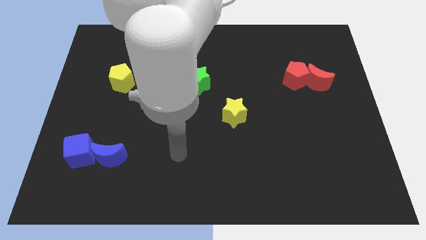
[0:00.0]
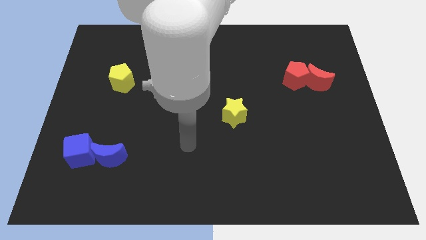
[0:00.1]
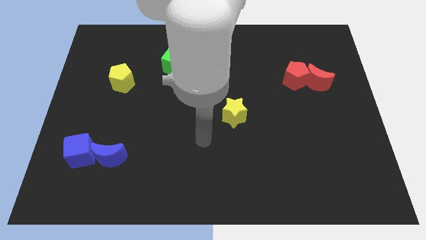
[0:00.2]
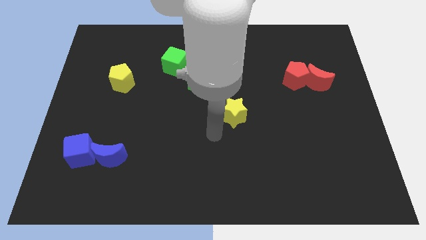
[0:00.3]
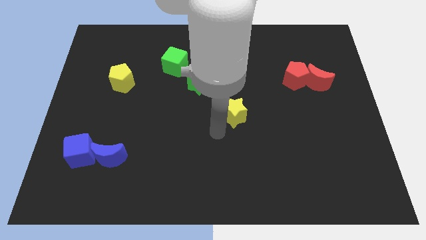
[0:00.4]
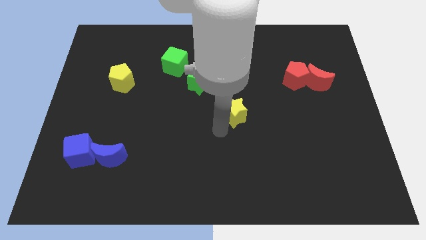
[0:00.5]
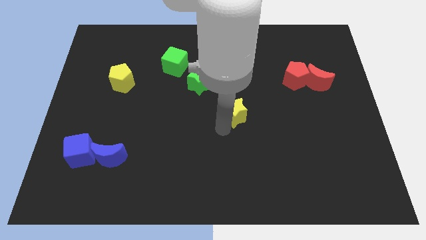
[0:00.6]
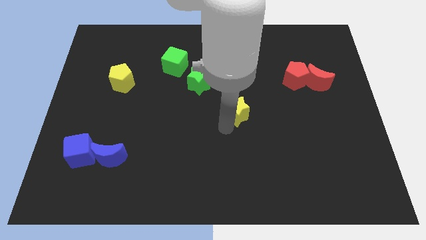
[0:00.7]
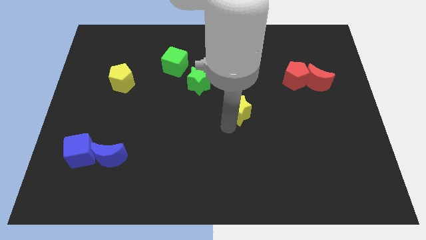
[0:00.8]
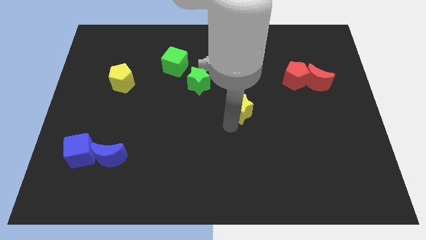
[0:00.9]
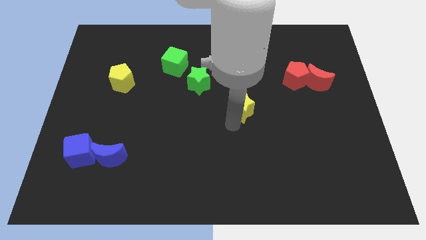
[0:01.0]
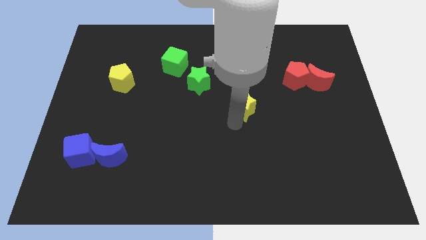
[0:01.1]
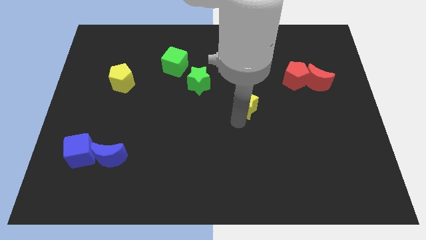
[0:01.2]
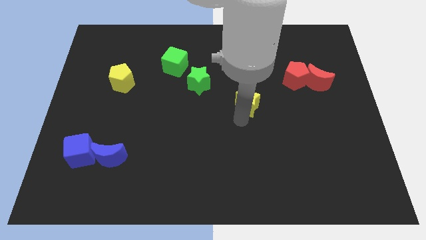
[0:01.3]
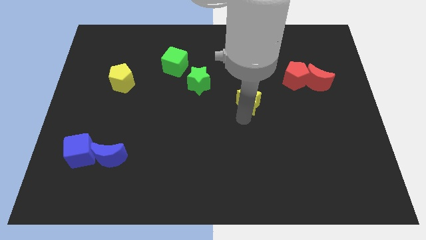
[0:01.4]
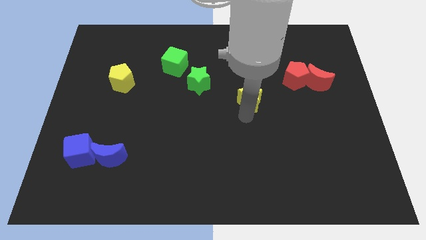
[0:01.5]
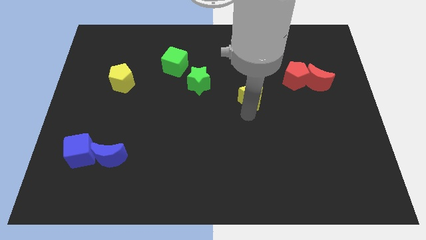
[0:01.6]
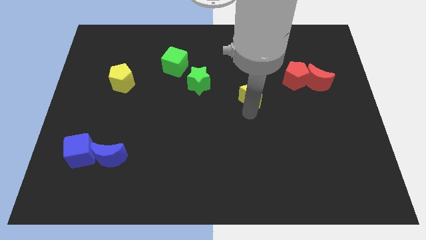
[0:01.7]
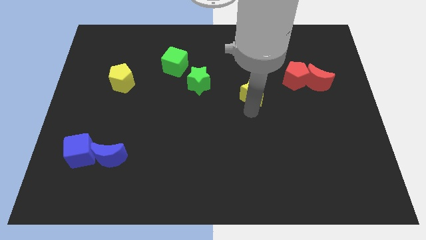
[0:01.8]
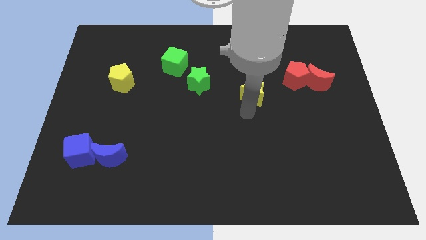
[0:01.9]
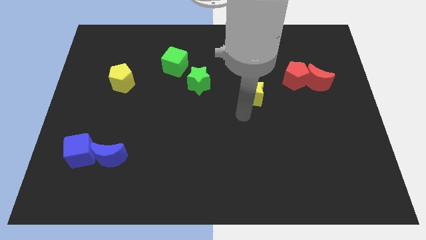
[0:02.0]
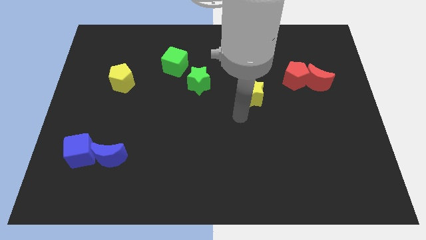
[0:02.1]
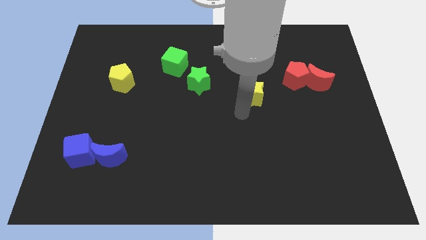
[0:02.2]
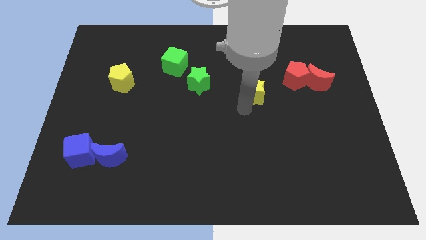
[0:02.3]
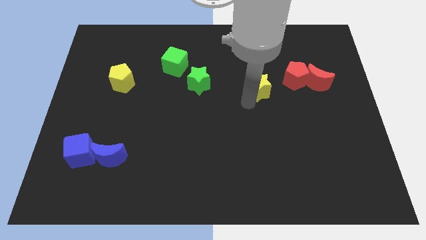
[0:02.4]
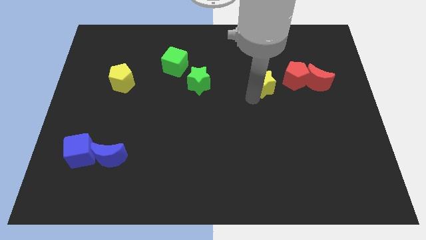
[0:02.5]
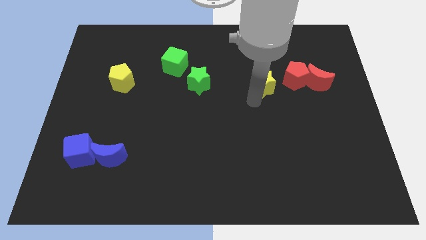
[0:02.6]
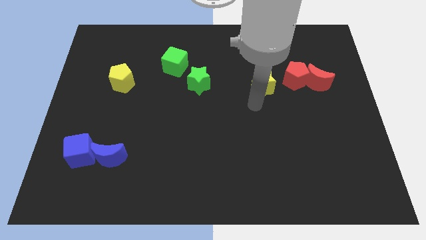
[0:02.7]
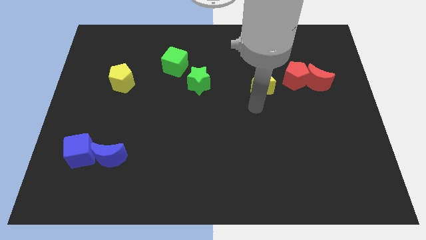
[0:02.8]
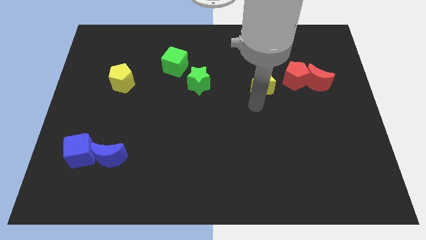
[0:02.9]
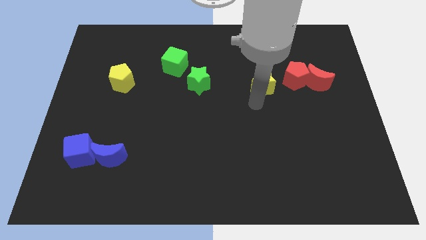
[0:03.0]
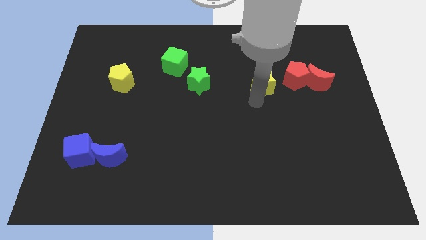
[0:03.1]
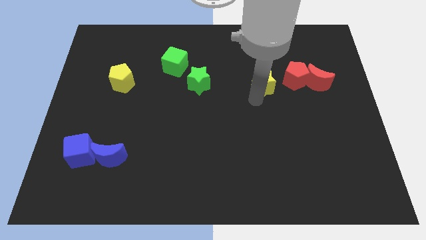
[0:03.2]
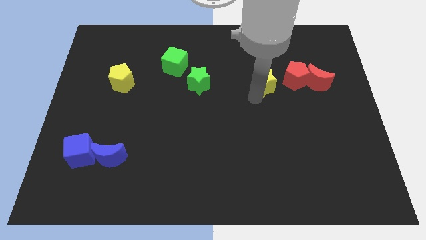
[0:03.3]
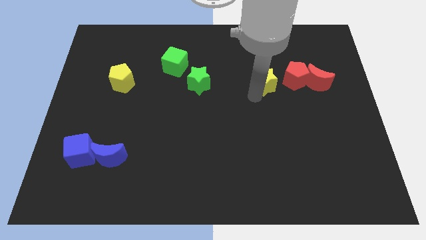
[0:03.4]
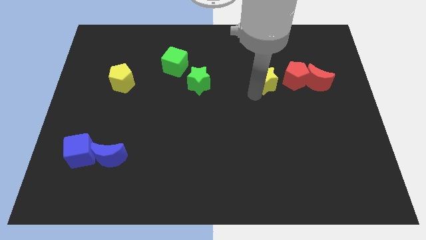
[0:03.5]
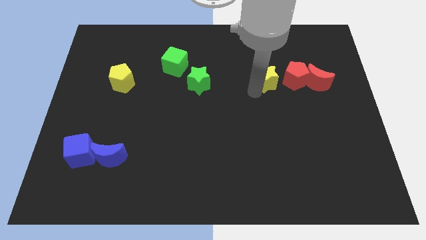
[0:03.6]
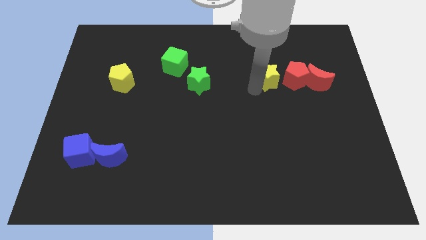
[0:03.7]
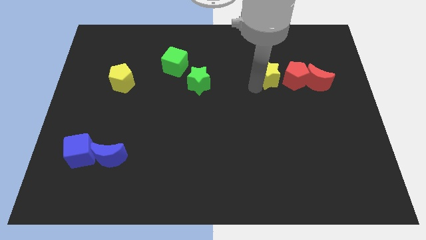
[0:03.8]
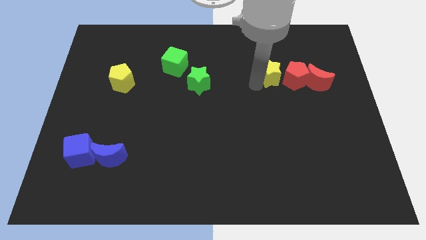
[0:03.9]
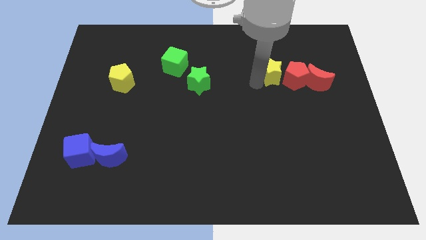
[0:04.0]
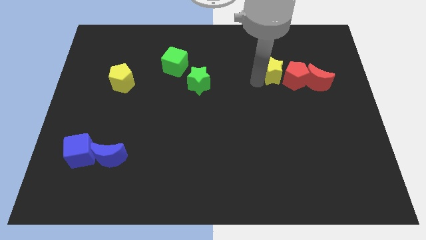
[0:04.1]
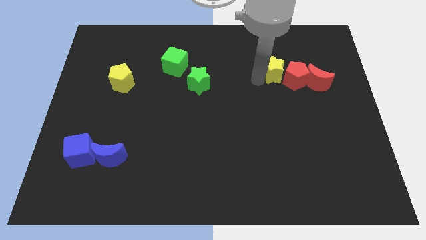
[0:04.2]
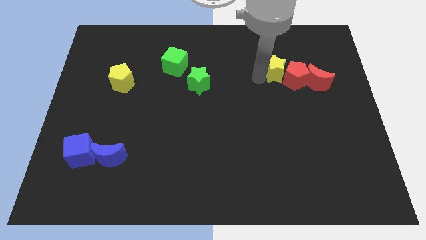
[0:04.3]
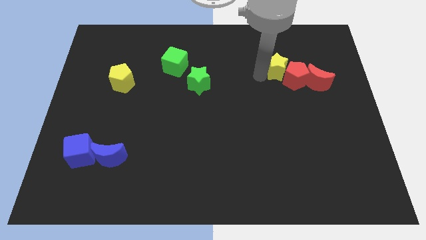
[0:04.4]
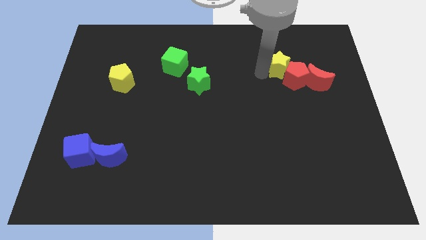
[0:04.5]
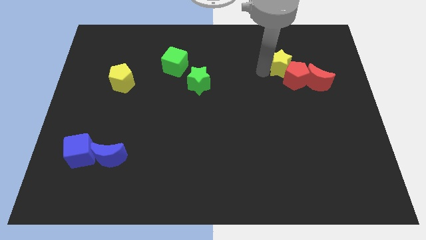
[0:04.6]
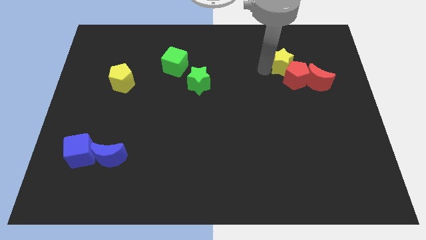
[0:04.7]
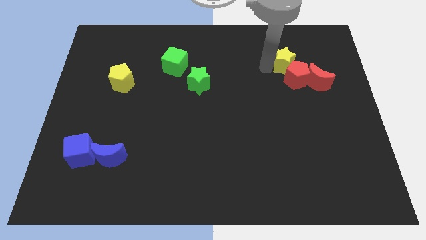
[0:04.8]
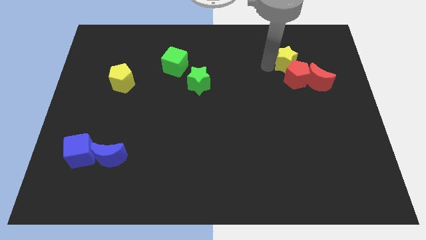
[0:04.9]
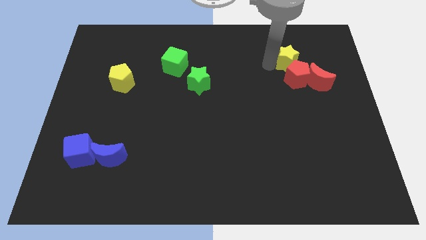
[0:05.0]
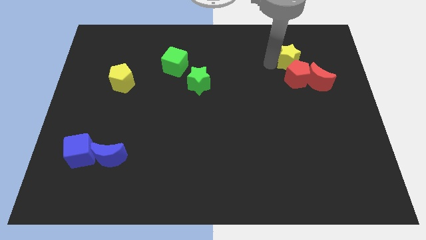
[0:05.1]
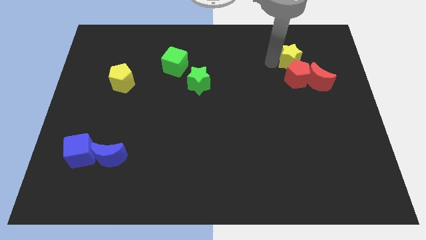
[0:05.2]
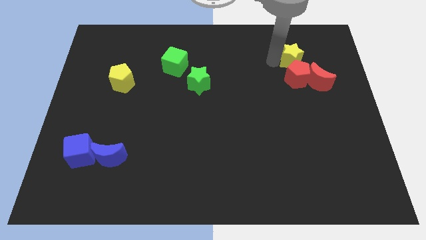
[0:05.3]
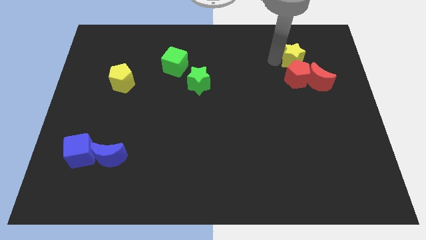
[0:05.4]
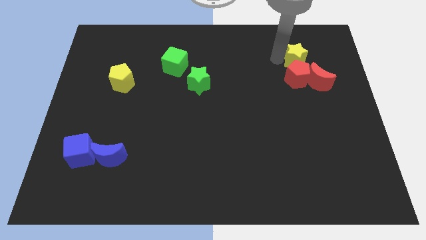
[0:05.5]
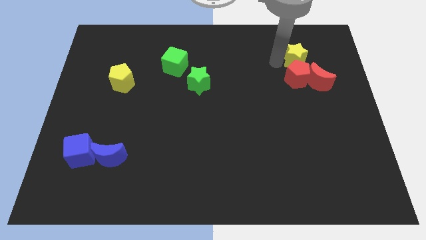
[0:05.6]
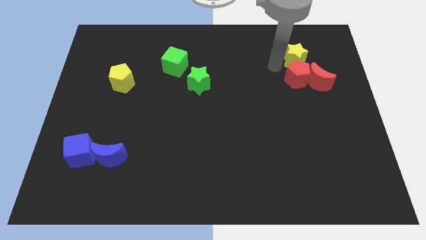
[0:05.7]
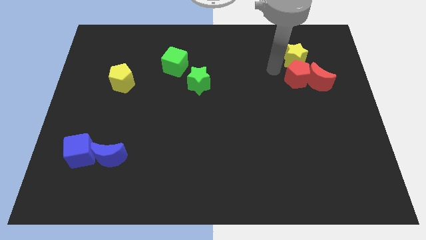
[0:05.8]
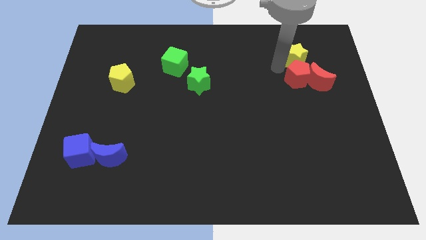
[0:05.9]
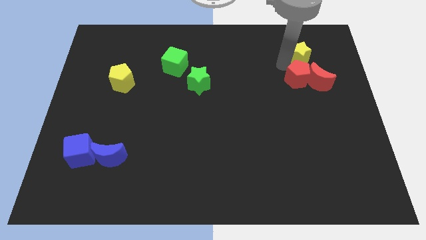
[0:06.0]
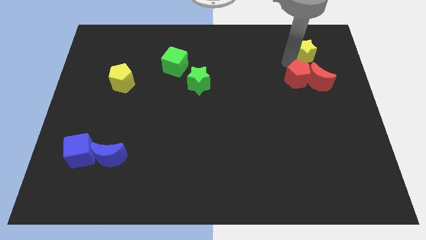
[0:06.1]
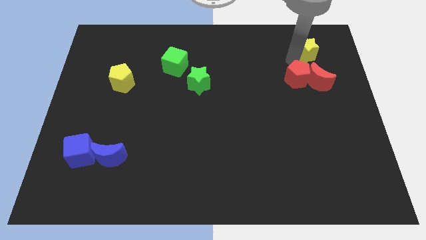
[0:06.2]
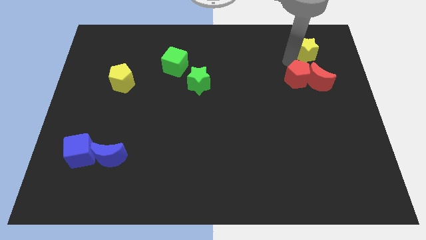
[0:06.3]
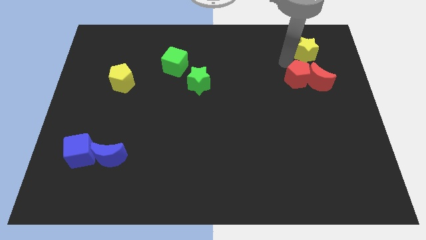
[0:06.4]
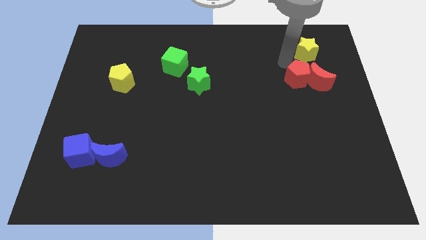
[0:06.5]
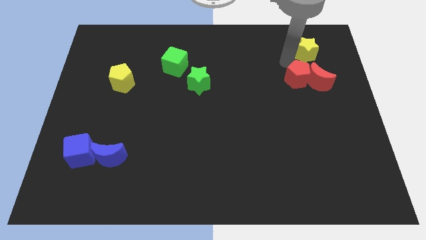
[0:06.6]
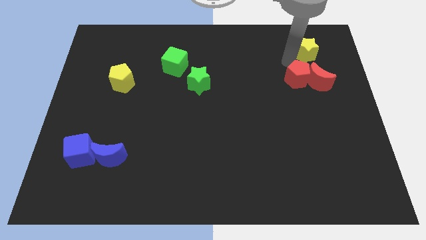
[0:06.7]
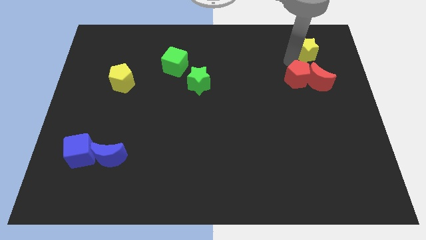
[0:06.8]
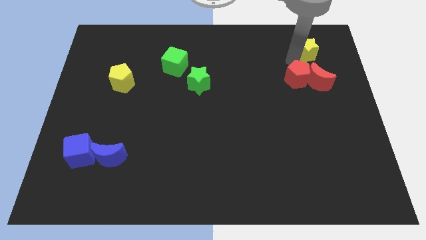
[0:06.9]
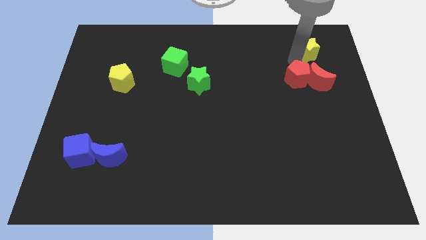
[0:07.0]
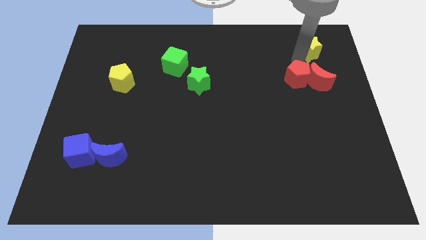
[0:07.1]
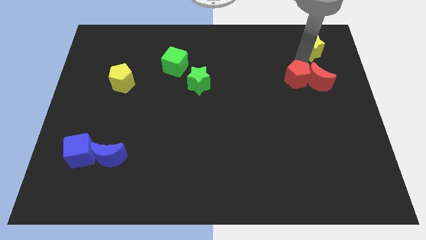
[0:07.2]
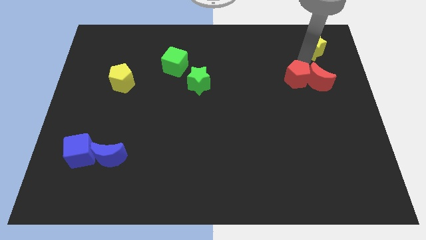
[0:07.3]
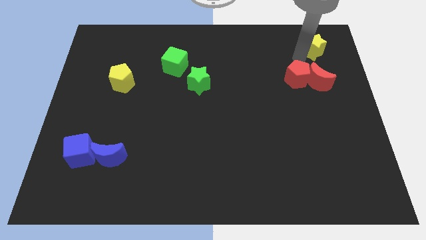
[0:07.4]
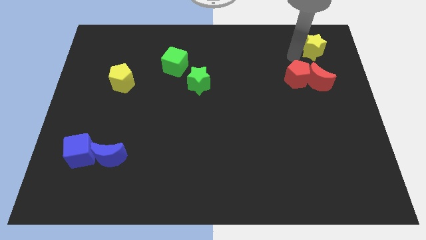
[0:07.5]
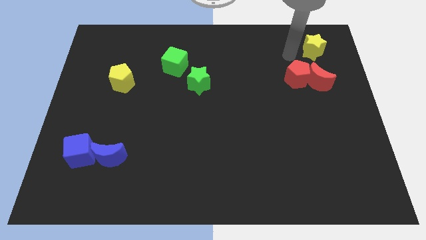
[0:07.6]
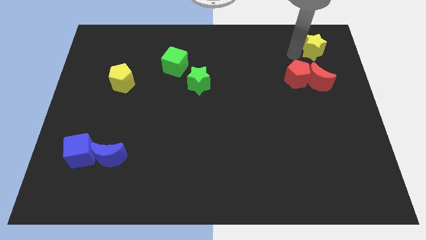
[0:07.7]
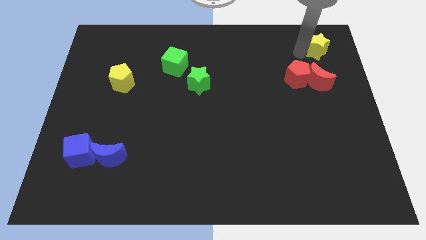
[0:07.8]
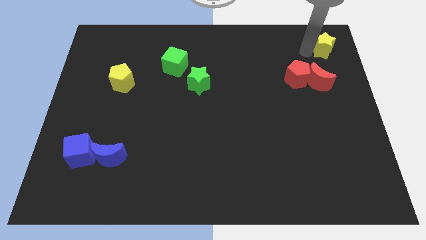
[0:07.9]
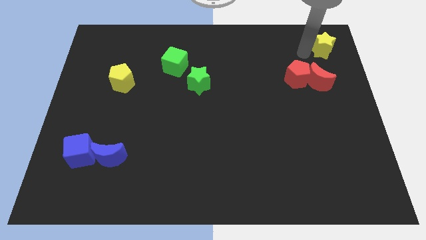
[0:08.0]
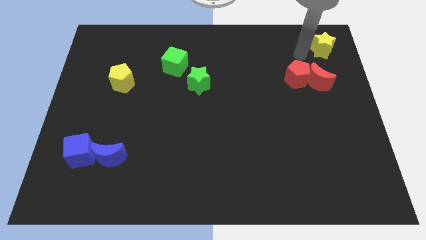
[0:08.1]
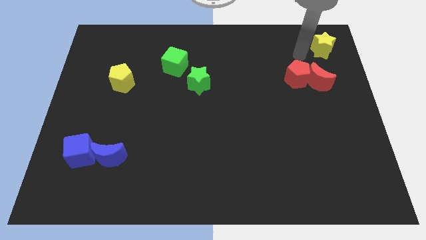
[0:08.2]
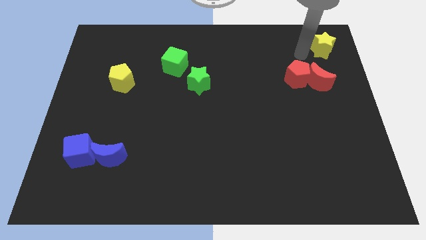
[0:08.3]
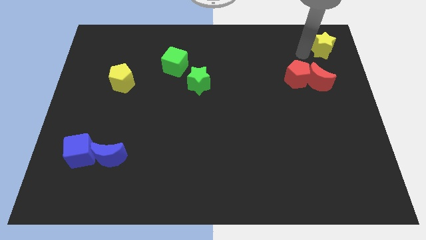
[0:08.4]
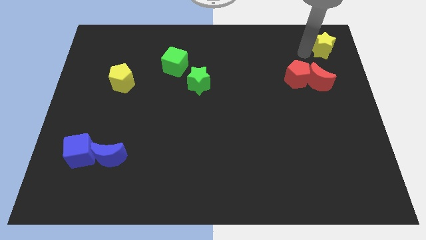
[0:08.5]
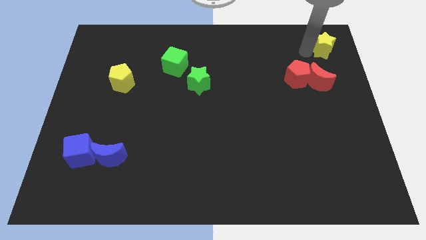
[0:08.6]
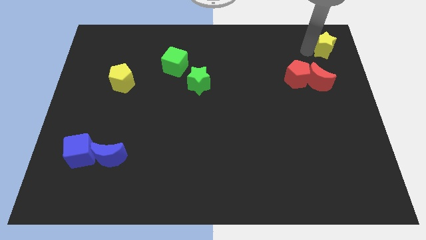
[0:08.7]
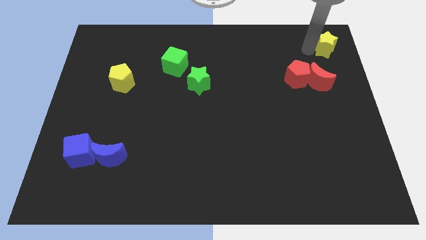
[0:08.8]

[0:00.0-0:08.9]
push the yellow star to the top right
